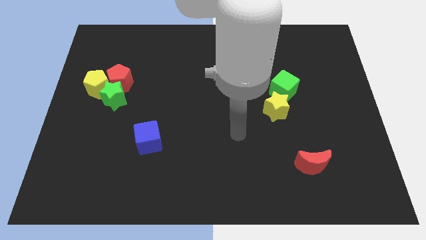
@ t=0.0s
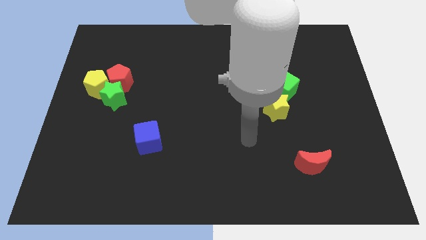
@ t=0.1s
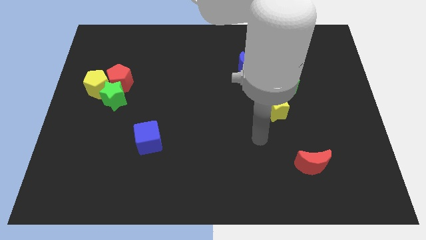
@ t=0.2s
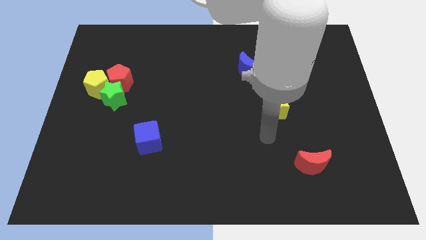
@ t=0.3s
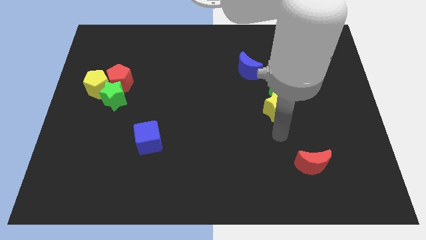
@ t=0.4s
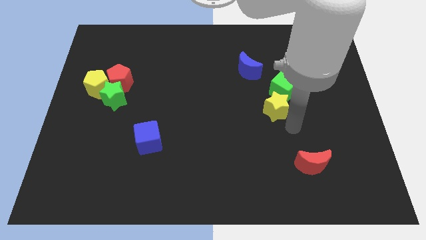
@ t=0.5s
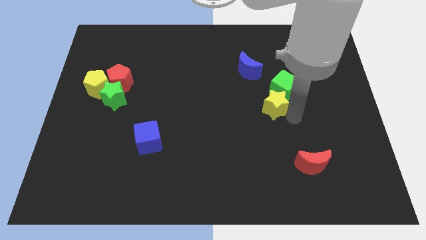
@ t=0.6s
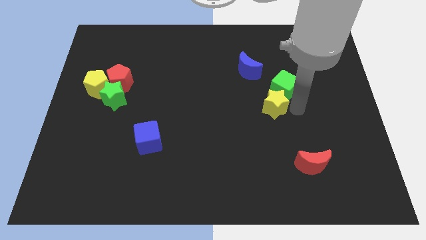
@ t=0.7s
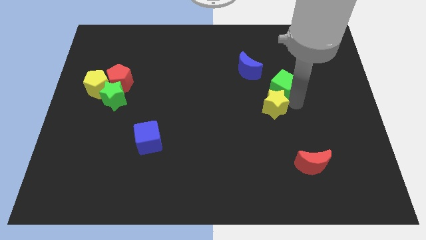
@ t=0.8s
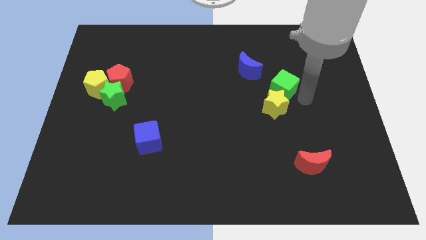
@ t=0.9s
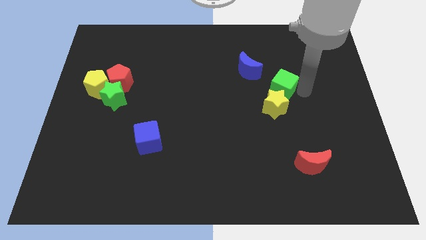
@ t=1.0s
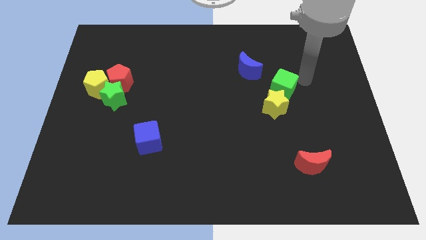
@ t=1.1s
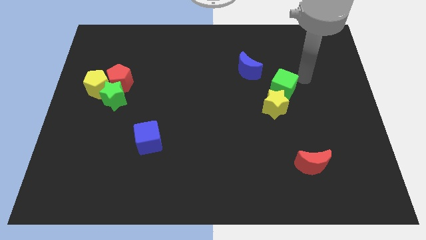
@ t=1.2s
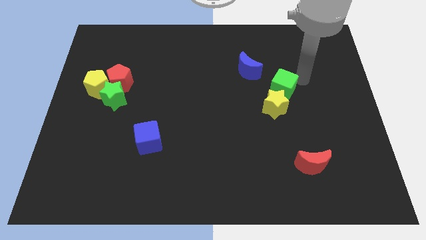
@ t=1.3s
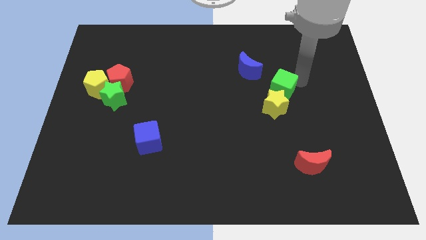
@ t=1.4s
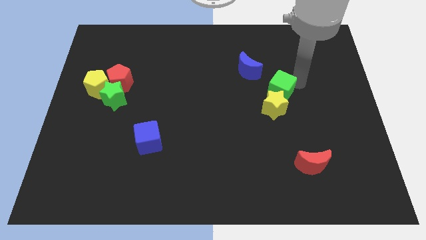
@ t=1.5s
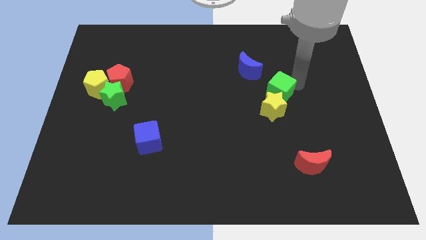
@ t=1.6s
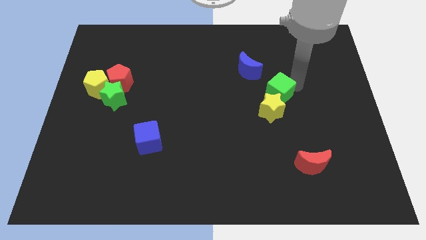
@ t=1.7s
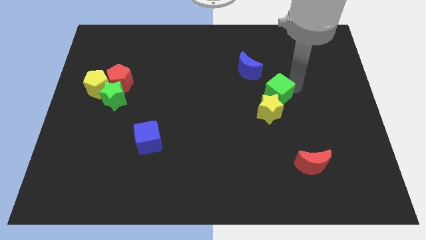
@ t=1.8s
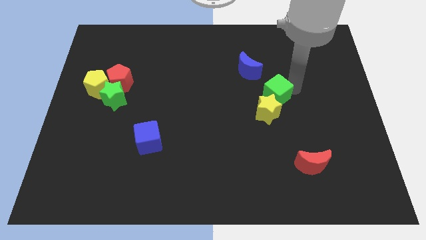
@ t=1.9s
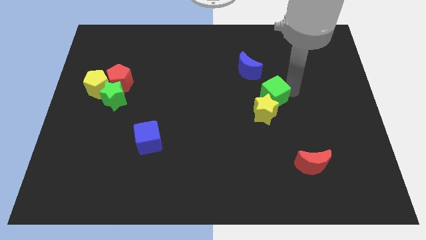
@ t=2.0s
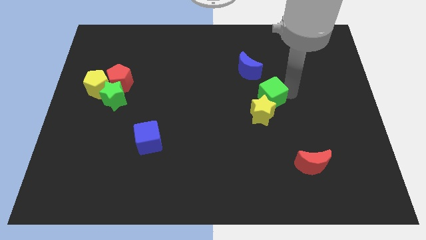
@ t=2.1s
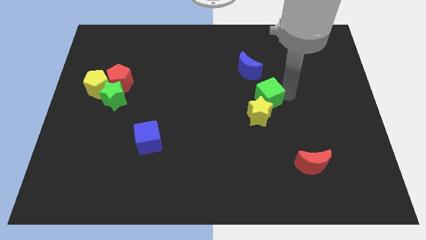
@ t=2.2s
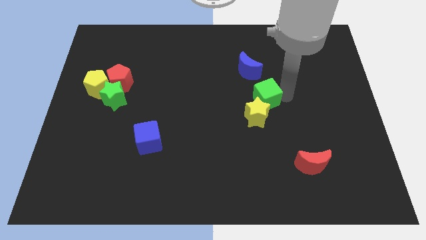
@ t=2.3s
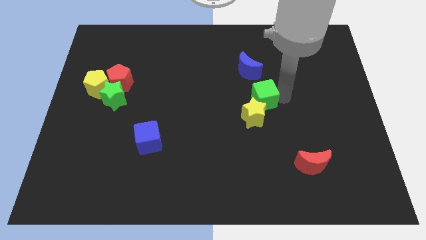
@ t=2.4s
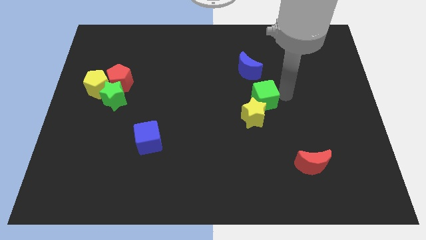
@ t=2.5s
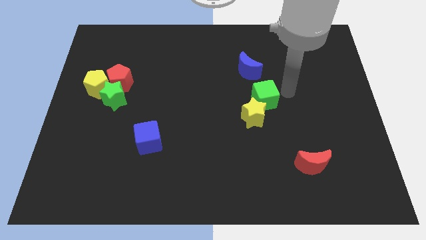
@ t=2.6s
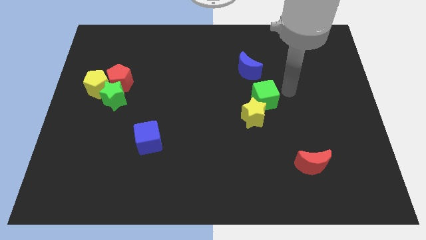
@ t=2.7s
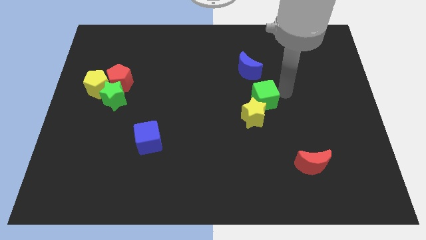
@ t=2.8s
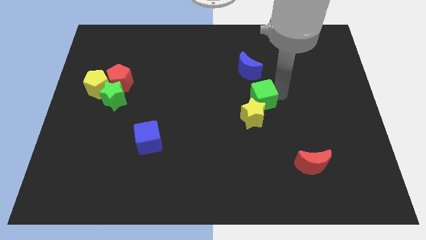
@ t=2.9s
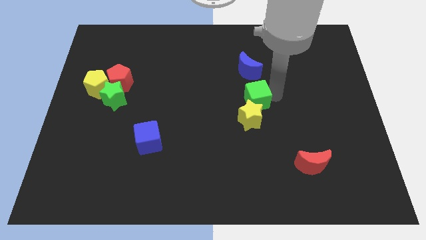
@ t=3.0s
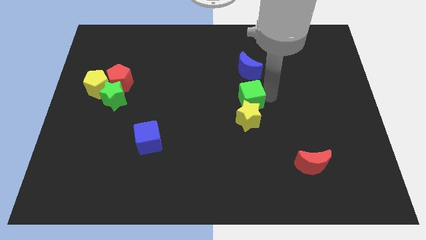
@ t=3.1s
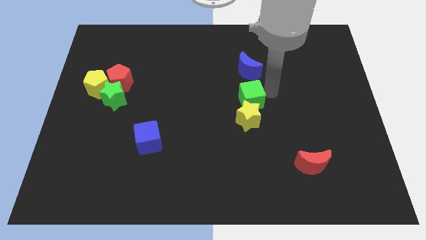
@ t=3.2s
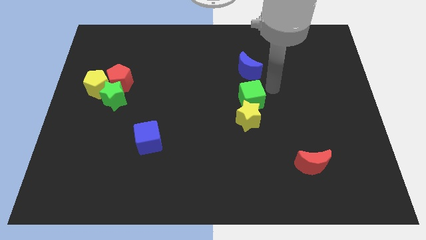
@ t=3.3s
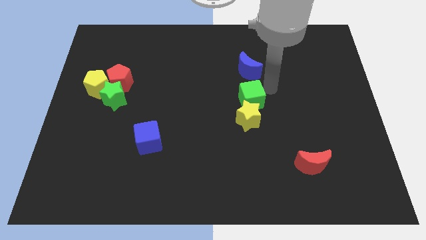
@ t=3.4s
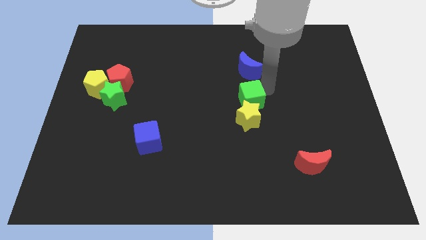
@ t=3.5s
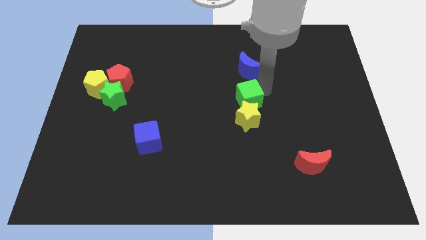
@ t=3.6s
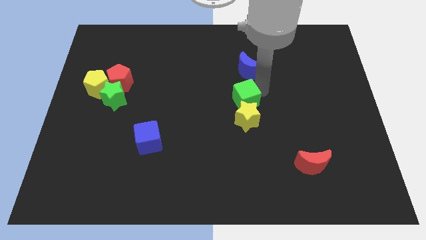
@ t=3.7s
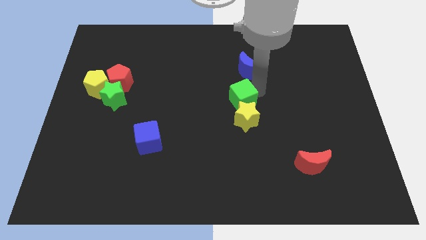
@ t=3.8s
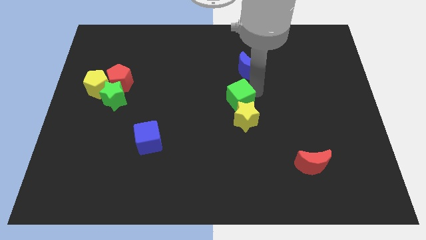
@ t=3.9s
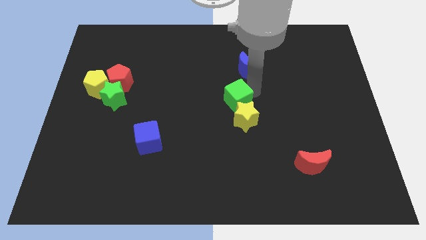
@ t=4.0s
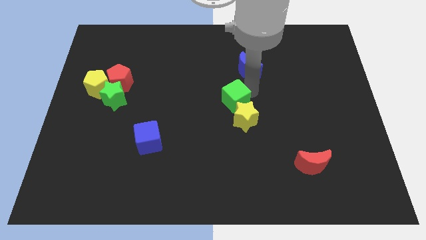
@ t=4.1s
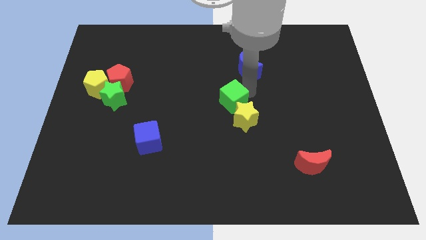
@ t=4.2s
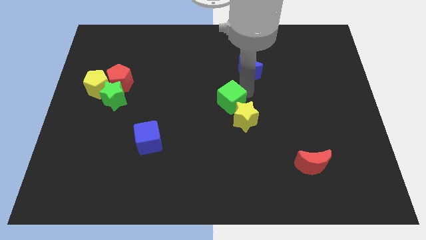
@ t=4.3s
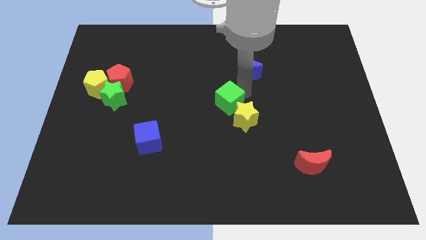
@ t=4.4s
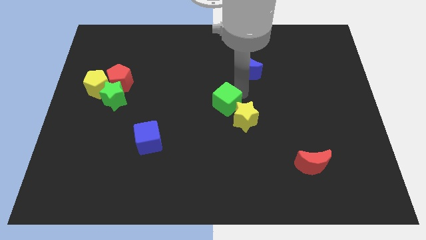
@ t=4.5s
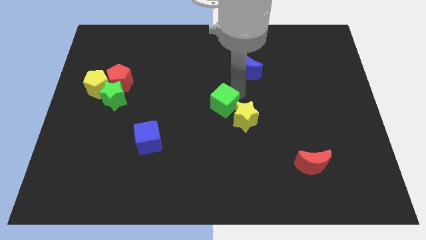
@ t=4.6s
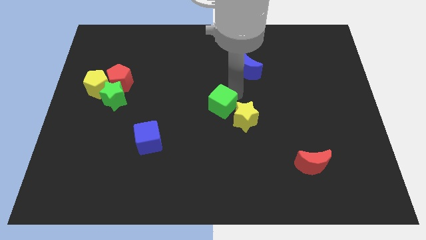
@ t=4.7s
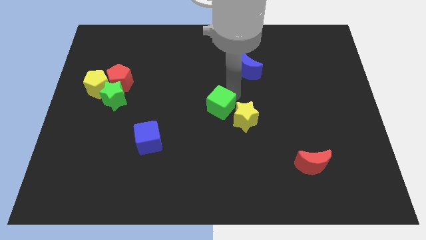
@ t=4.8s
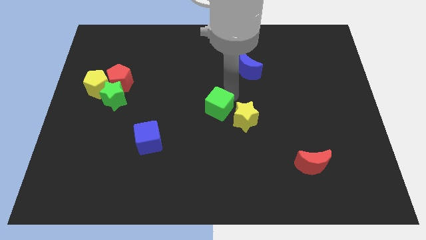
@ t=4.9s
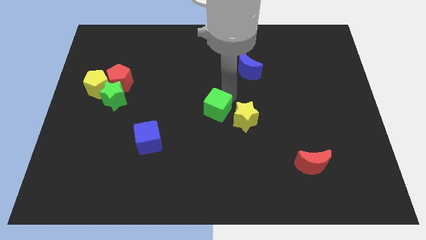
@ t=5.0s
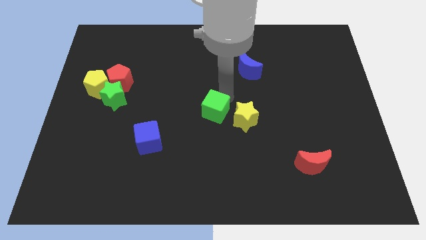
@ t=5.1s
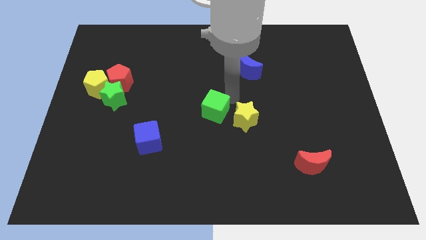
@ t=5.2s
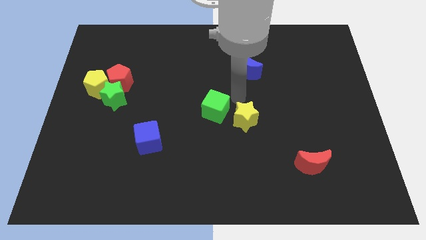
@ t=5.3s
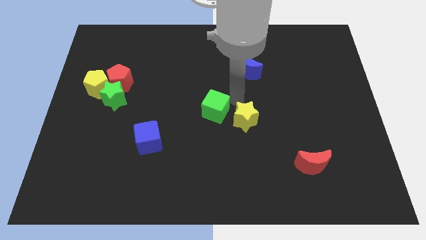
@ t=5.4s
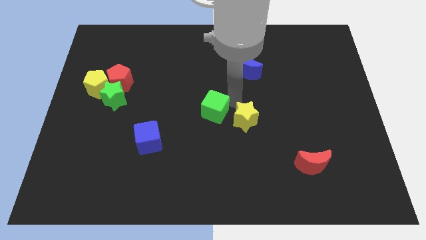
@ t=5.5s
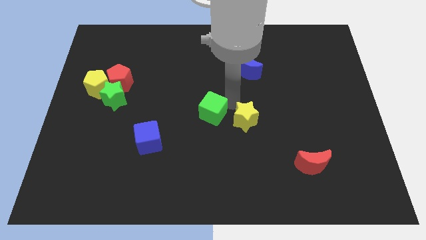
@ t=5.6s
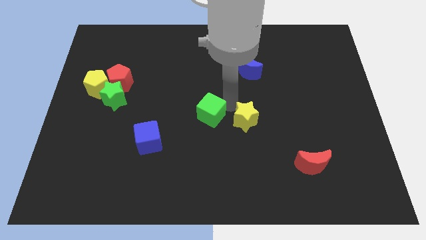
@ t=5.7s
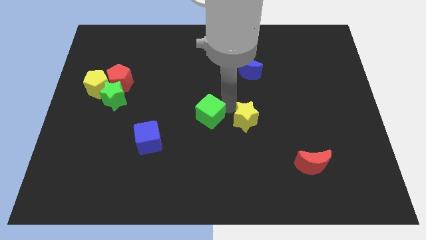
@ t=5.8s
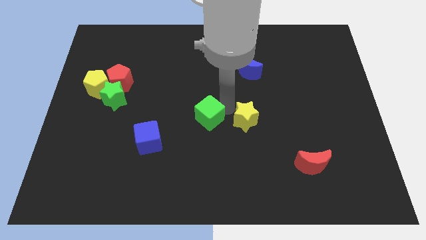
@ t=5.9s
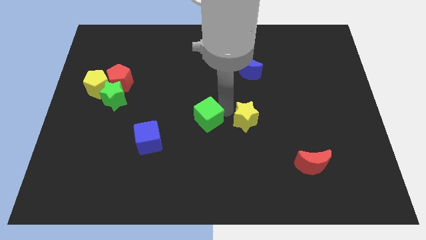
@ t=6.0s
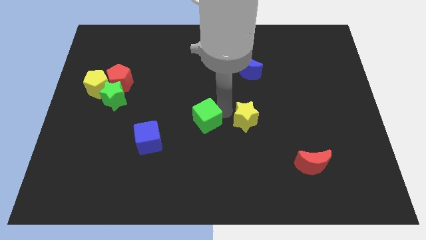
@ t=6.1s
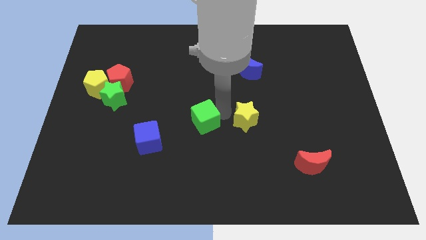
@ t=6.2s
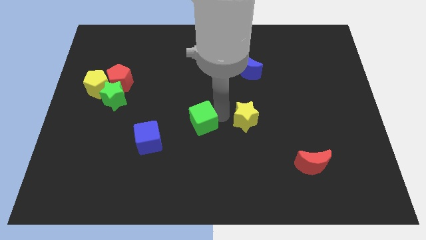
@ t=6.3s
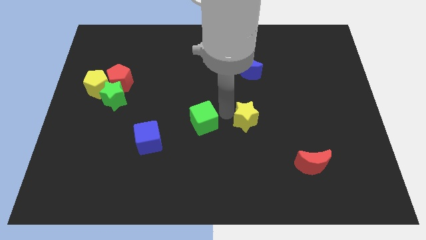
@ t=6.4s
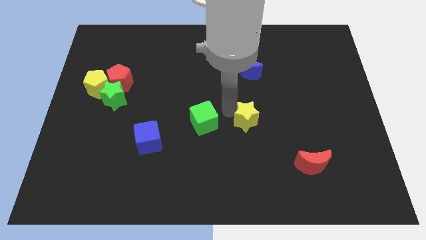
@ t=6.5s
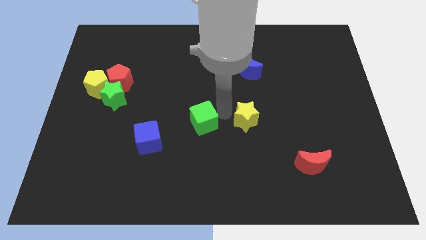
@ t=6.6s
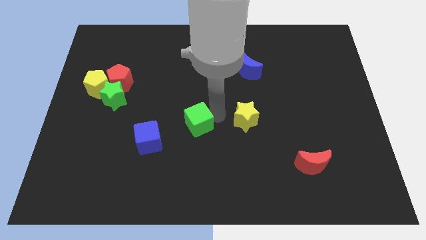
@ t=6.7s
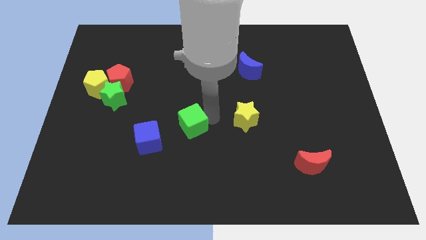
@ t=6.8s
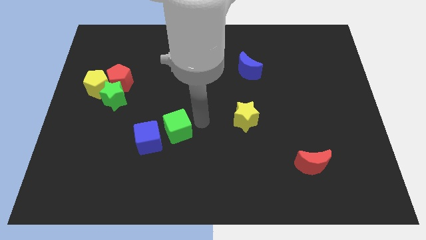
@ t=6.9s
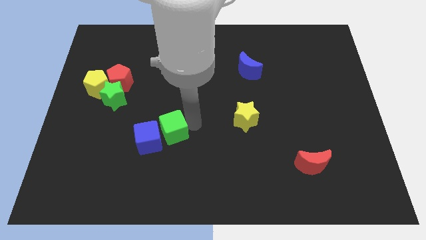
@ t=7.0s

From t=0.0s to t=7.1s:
move the green cube towards the blue cube
